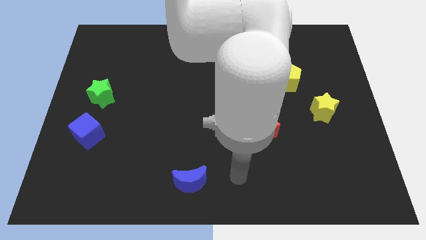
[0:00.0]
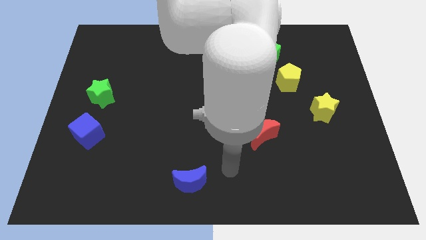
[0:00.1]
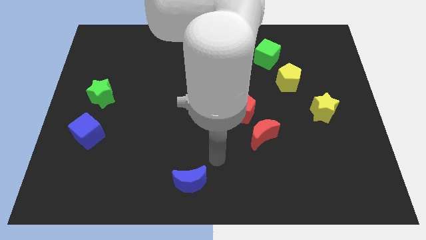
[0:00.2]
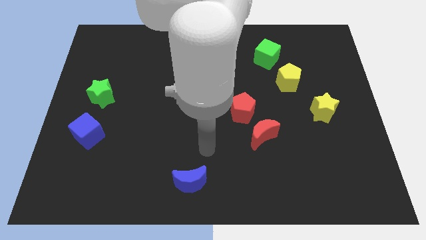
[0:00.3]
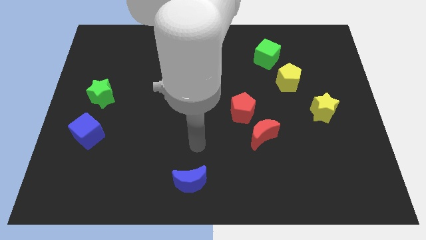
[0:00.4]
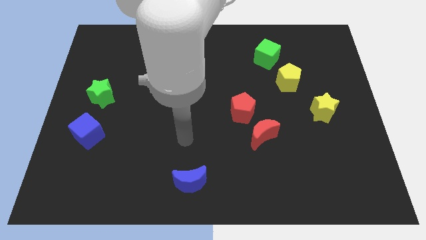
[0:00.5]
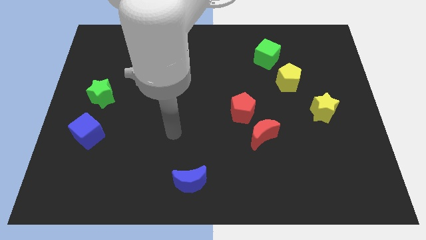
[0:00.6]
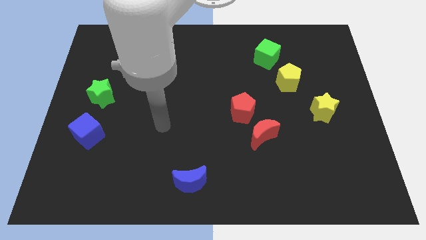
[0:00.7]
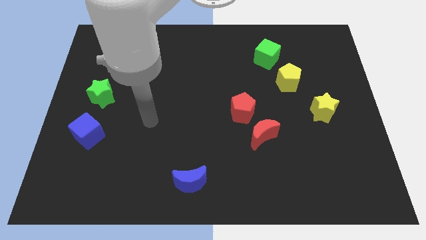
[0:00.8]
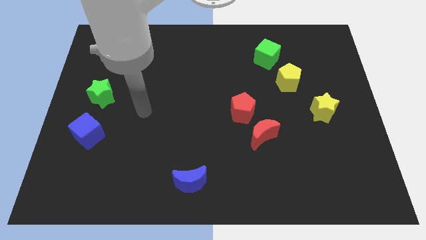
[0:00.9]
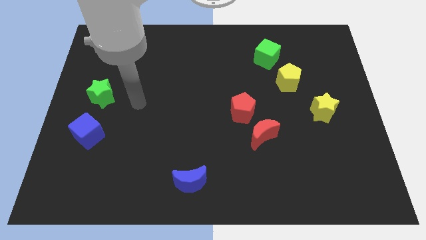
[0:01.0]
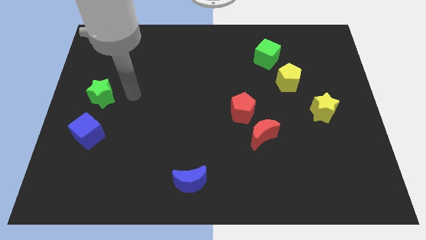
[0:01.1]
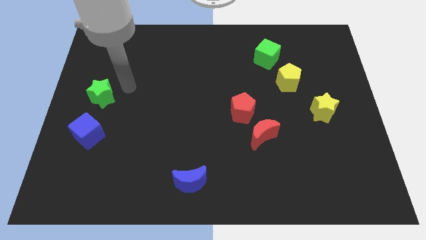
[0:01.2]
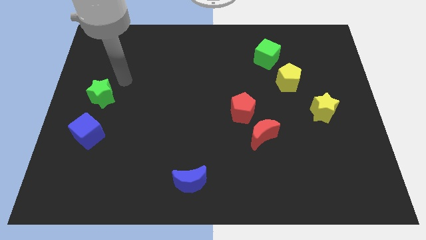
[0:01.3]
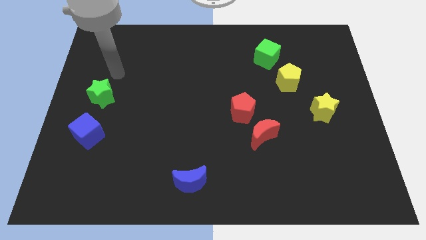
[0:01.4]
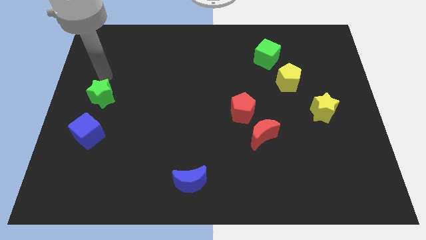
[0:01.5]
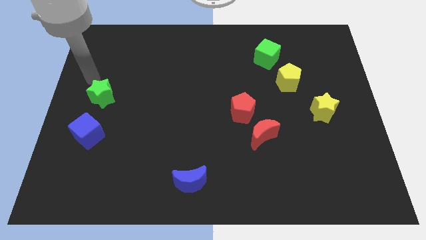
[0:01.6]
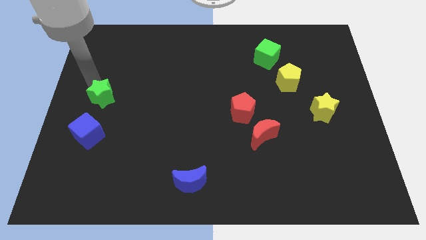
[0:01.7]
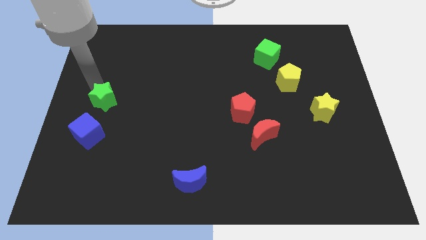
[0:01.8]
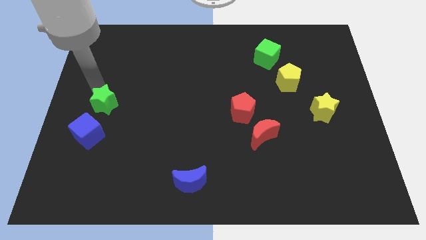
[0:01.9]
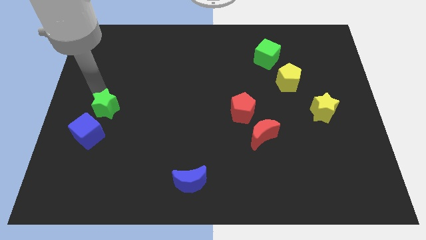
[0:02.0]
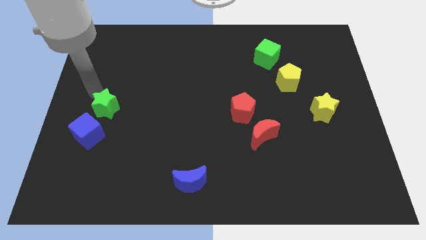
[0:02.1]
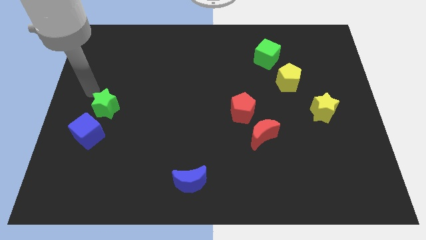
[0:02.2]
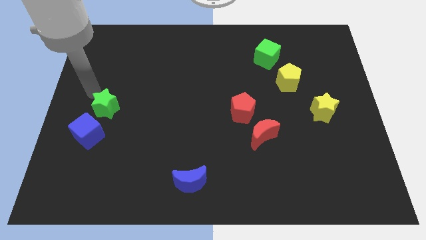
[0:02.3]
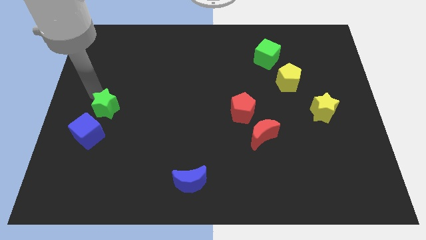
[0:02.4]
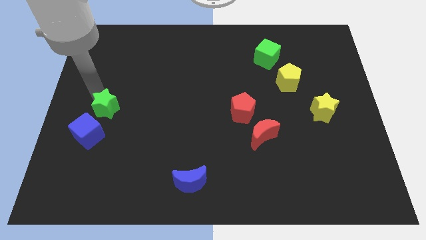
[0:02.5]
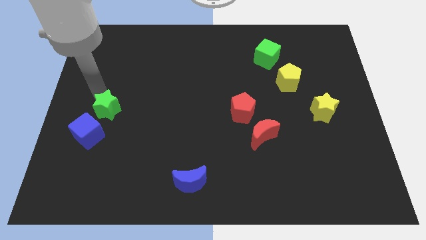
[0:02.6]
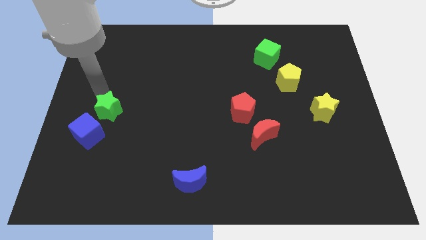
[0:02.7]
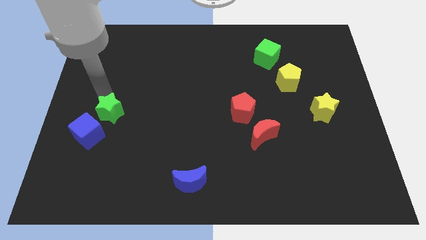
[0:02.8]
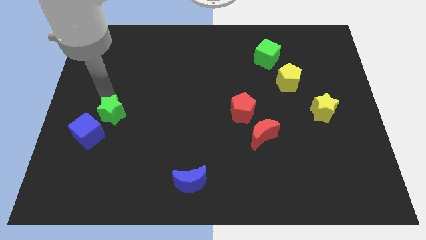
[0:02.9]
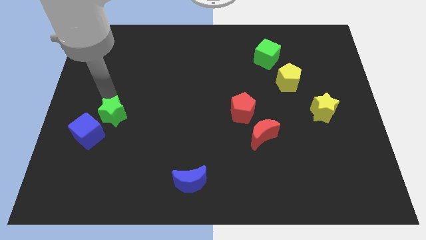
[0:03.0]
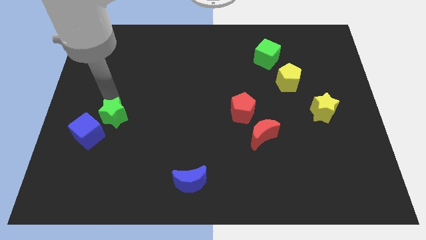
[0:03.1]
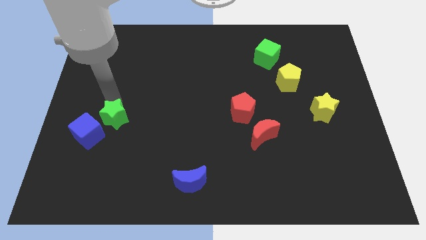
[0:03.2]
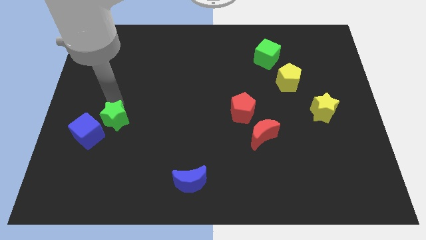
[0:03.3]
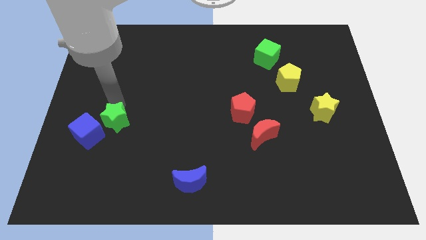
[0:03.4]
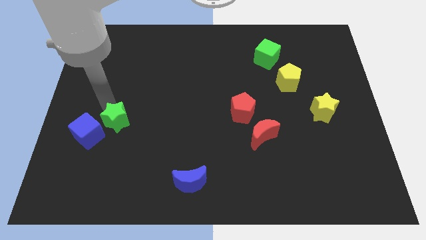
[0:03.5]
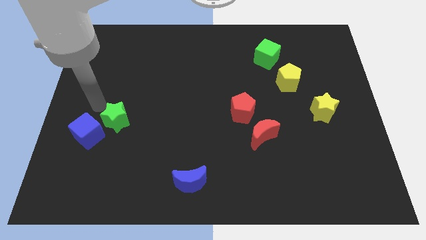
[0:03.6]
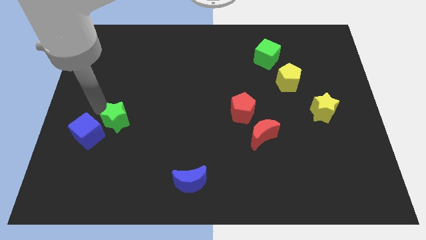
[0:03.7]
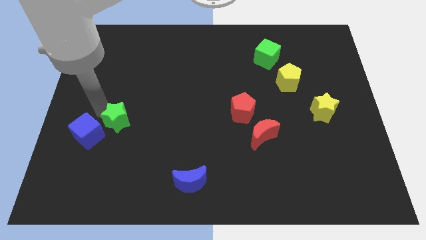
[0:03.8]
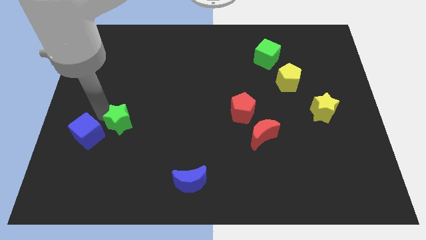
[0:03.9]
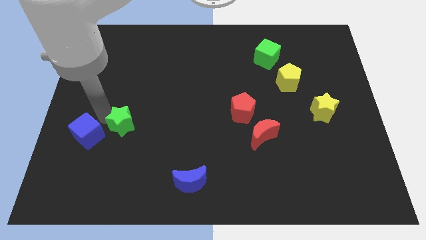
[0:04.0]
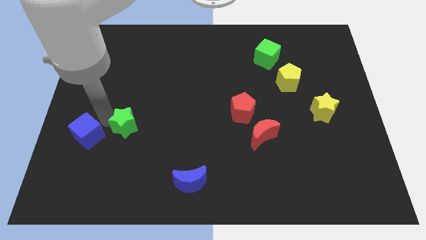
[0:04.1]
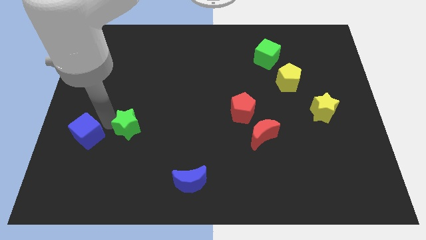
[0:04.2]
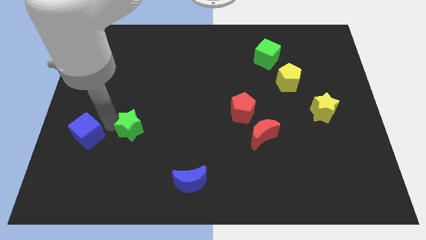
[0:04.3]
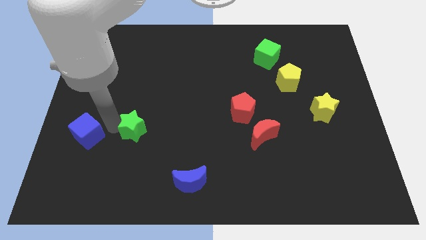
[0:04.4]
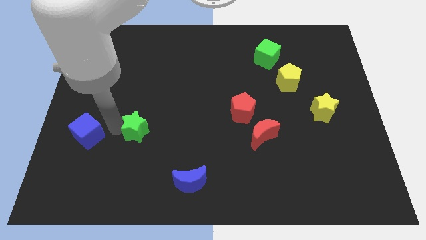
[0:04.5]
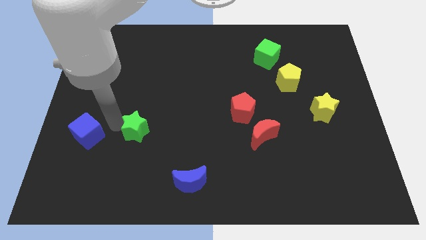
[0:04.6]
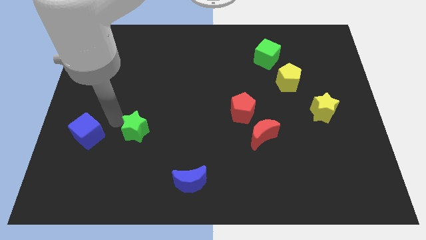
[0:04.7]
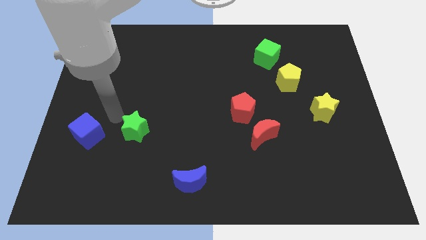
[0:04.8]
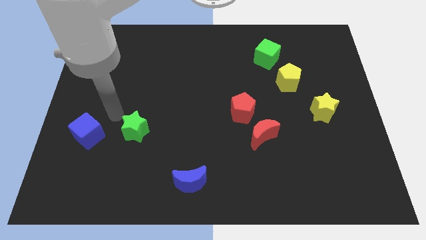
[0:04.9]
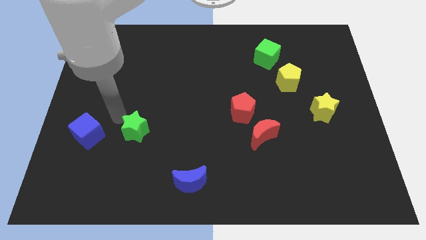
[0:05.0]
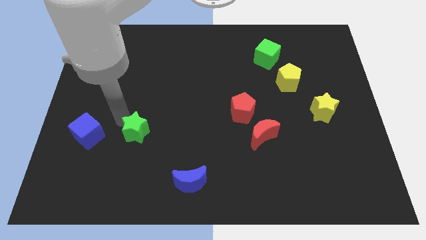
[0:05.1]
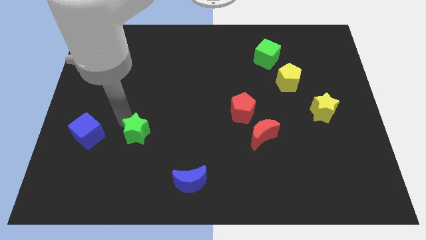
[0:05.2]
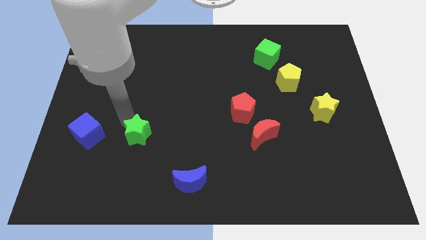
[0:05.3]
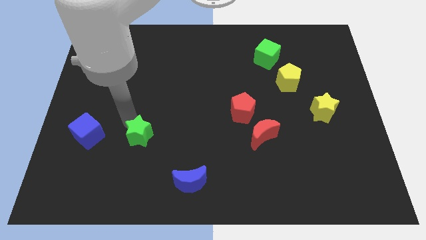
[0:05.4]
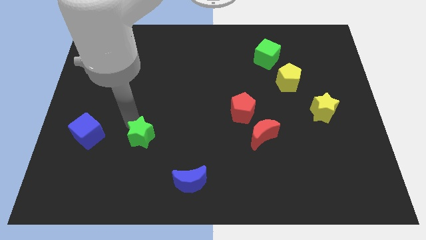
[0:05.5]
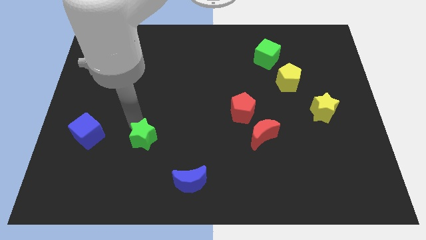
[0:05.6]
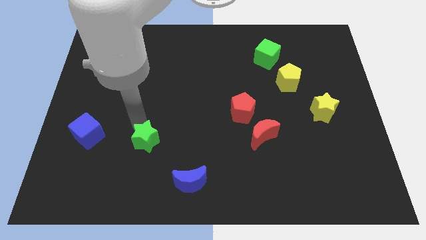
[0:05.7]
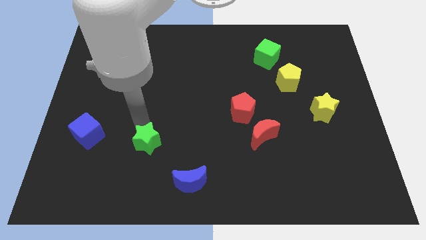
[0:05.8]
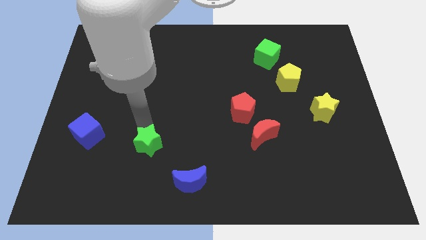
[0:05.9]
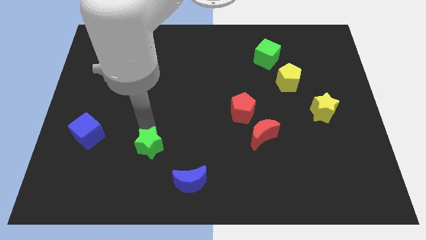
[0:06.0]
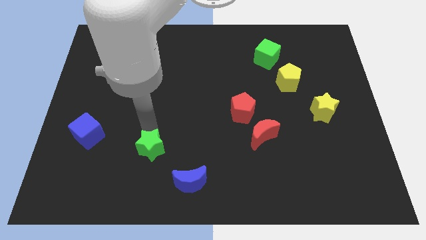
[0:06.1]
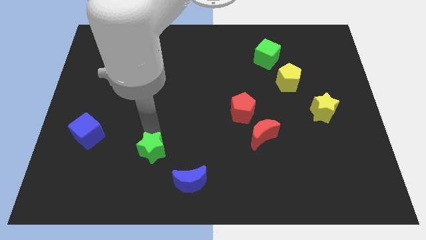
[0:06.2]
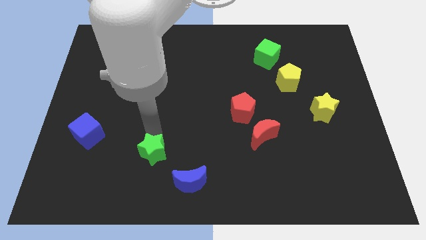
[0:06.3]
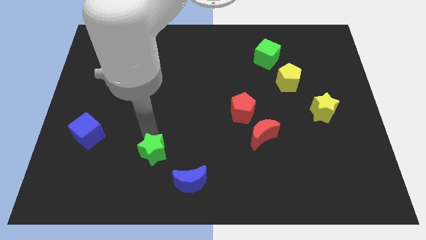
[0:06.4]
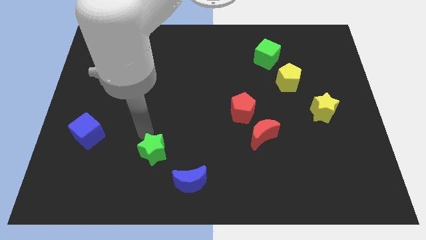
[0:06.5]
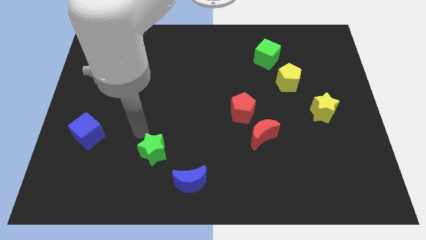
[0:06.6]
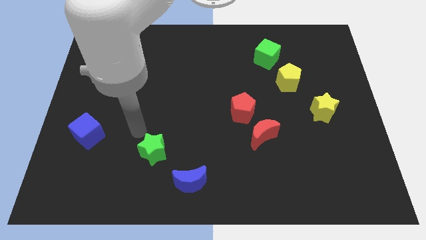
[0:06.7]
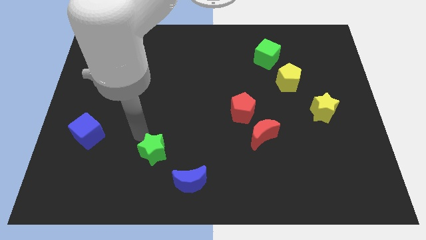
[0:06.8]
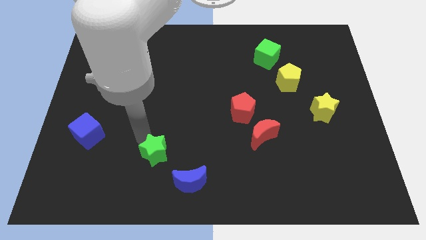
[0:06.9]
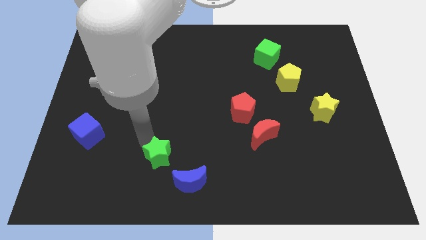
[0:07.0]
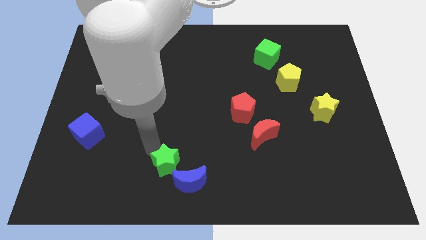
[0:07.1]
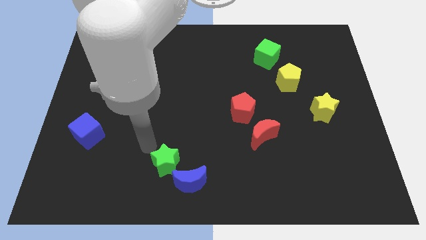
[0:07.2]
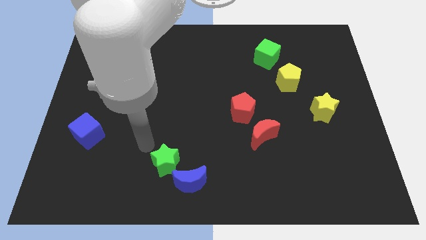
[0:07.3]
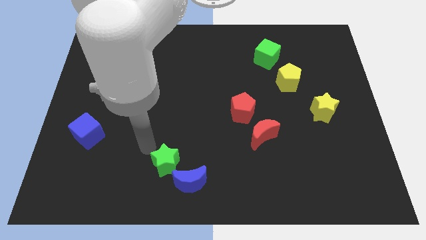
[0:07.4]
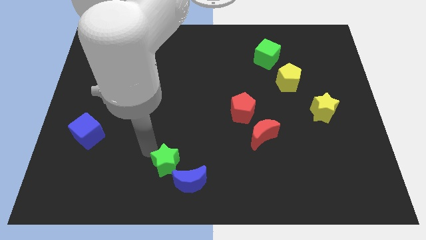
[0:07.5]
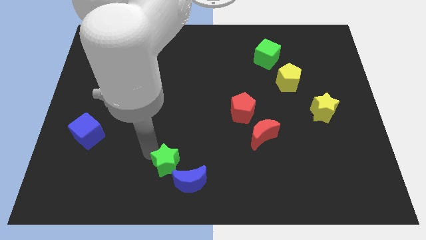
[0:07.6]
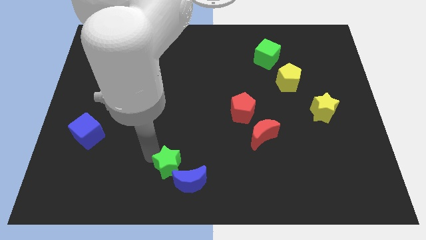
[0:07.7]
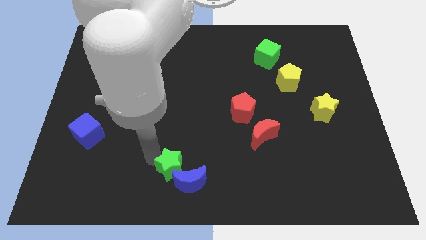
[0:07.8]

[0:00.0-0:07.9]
put the green star to the blue moon
